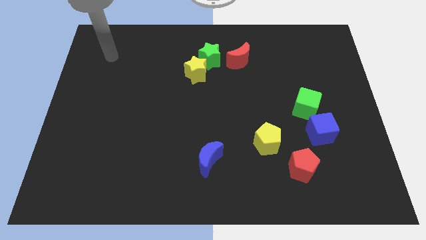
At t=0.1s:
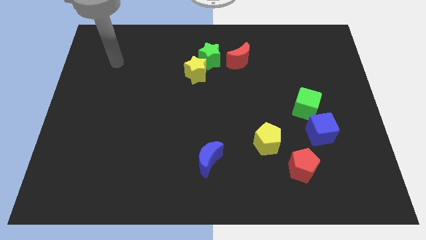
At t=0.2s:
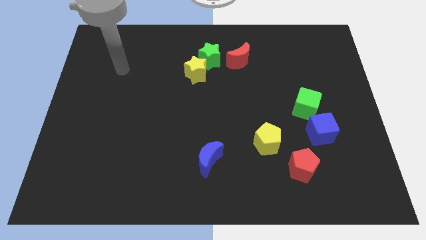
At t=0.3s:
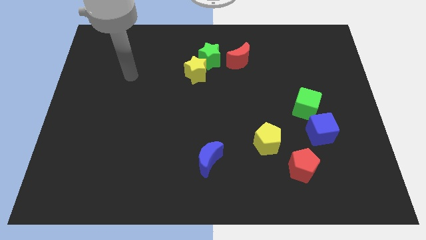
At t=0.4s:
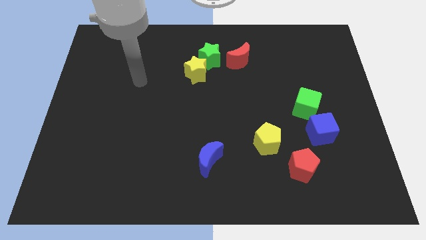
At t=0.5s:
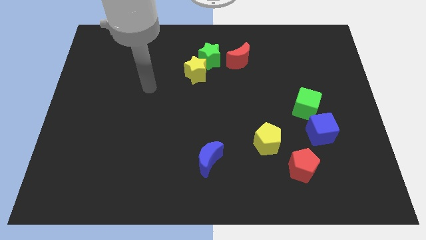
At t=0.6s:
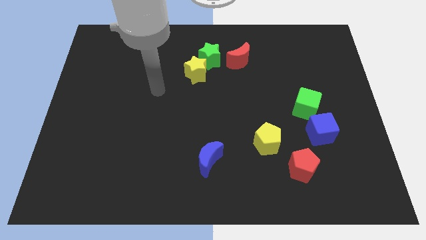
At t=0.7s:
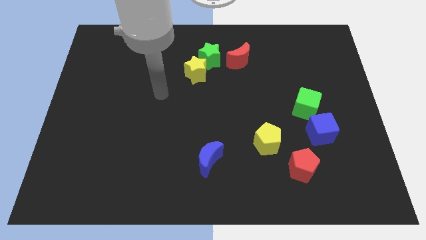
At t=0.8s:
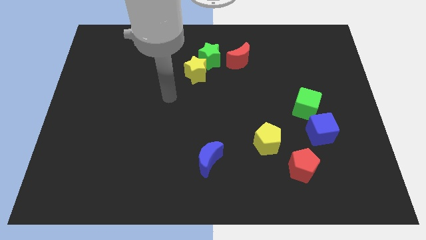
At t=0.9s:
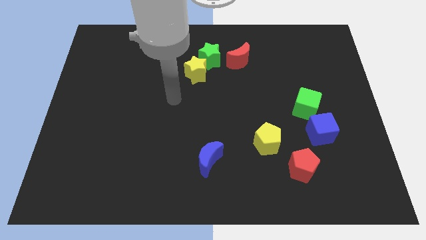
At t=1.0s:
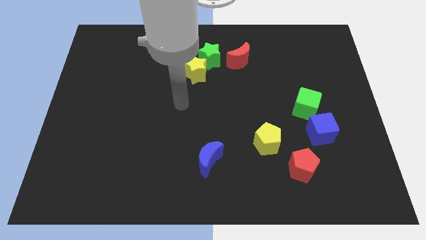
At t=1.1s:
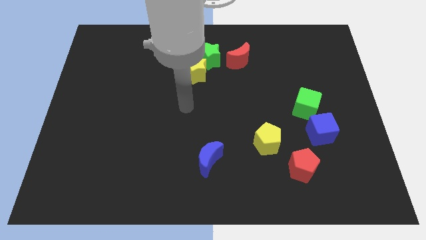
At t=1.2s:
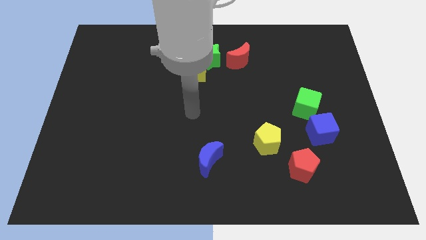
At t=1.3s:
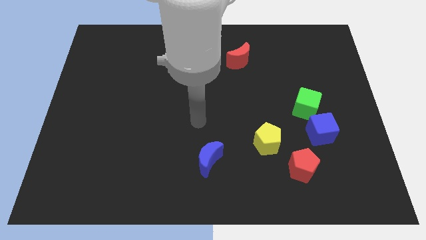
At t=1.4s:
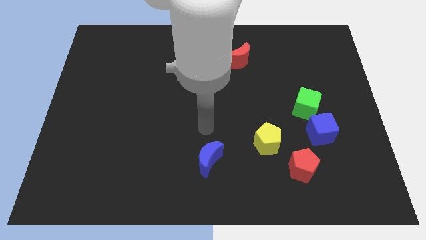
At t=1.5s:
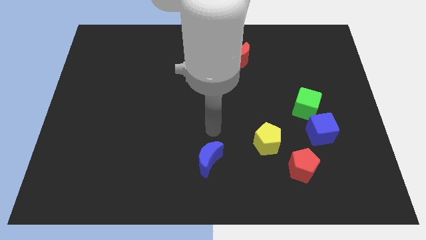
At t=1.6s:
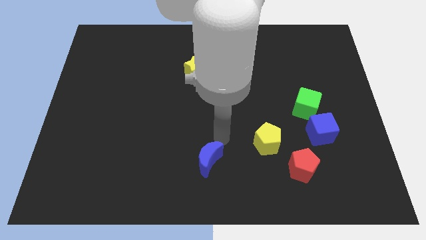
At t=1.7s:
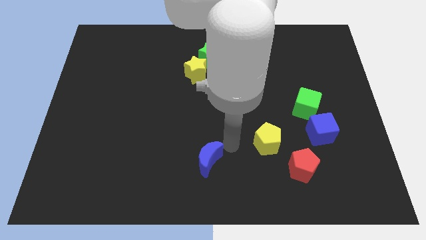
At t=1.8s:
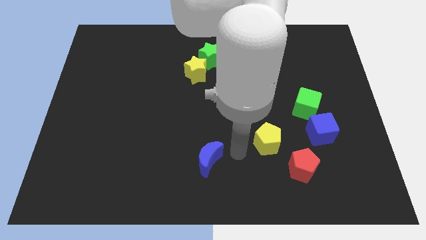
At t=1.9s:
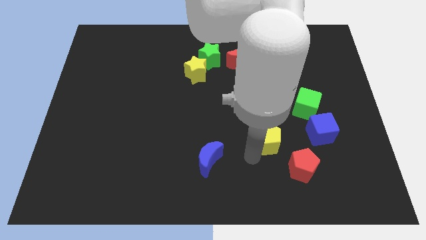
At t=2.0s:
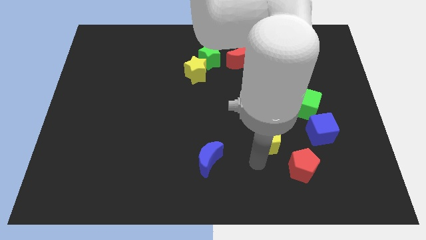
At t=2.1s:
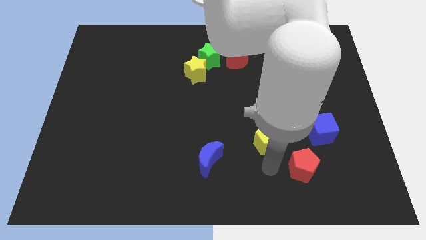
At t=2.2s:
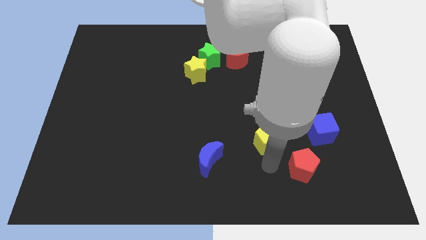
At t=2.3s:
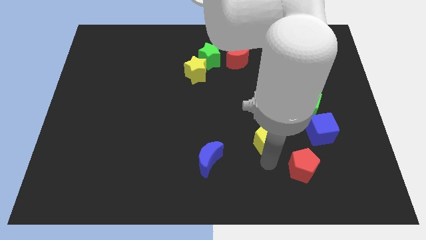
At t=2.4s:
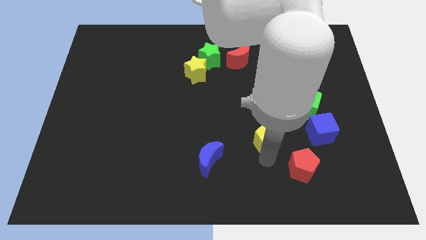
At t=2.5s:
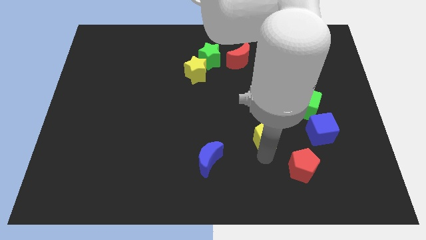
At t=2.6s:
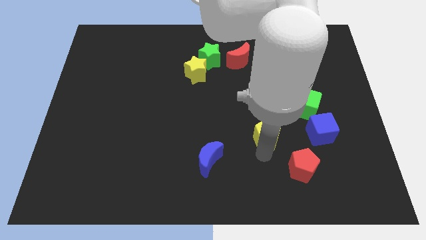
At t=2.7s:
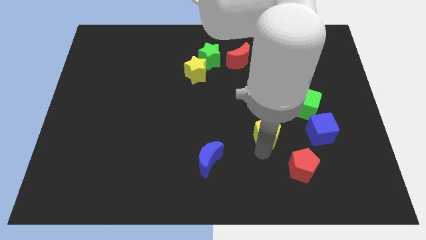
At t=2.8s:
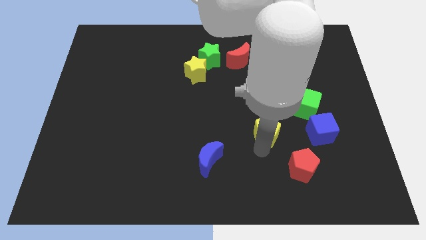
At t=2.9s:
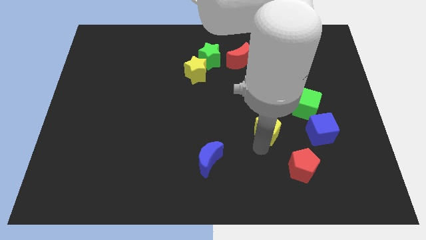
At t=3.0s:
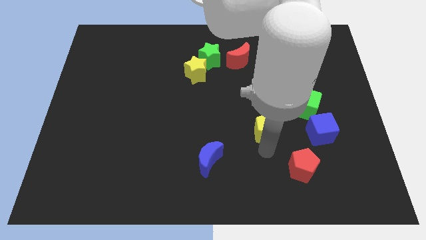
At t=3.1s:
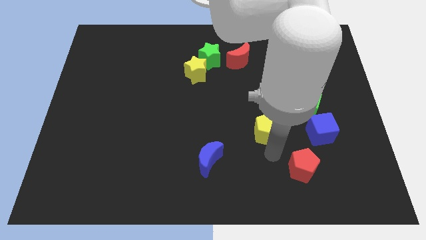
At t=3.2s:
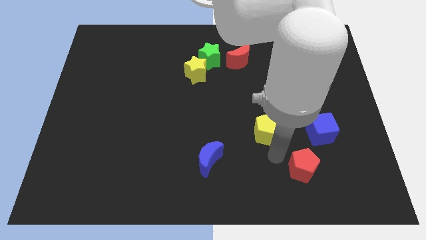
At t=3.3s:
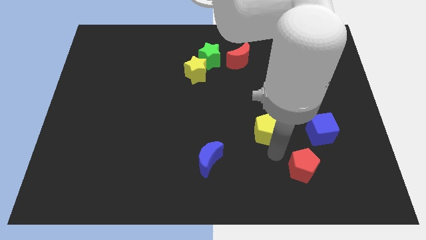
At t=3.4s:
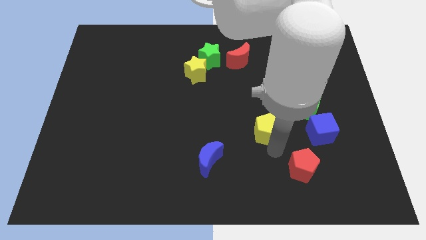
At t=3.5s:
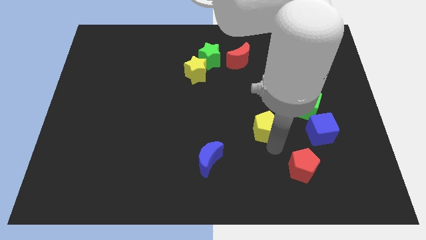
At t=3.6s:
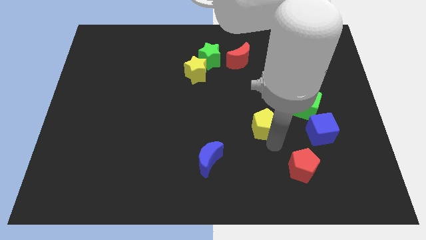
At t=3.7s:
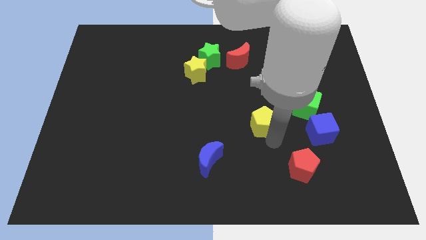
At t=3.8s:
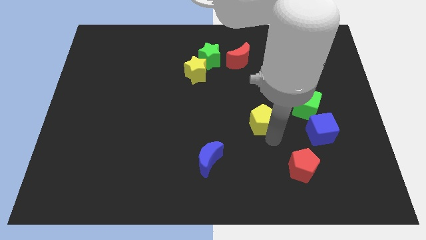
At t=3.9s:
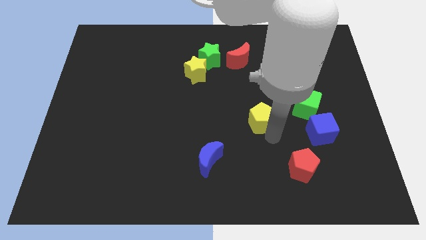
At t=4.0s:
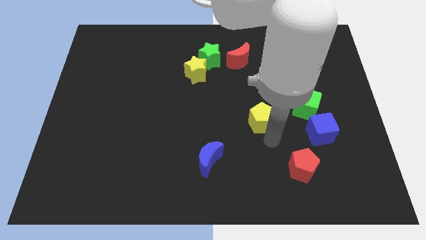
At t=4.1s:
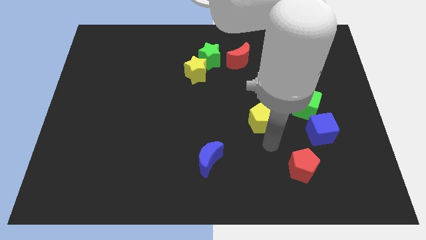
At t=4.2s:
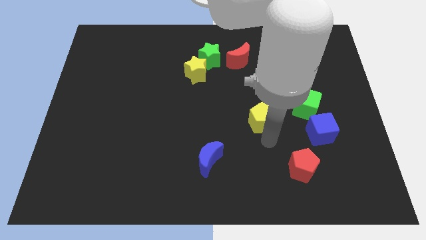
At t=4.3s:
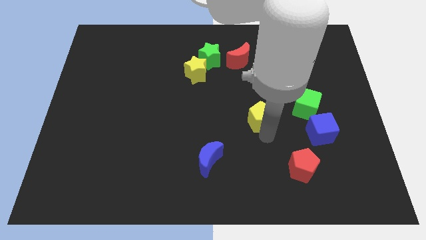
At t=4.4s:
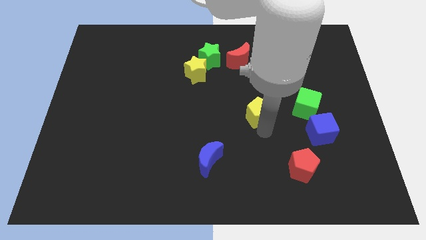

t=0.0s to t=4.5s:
slide the yellow pentagon upwards a bit

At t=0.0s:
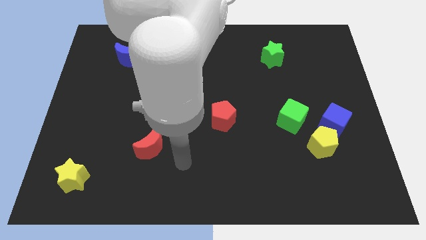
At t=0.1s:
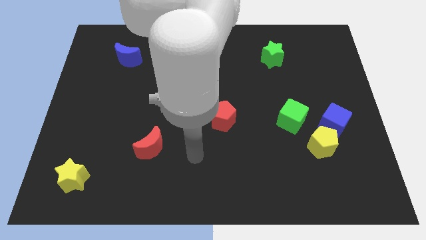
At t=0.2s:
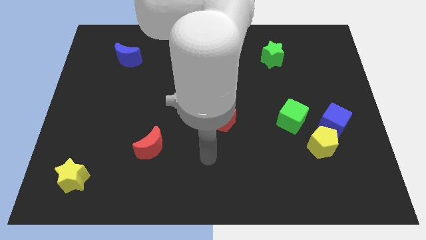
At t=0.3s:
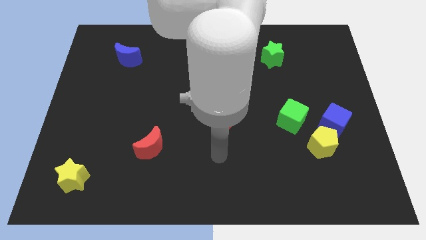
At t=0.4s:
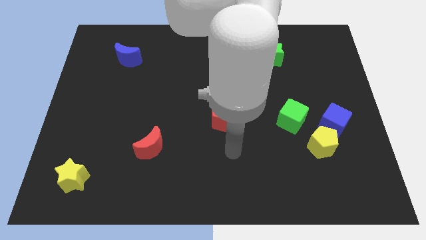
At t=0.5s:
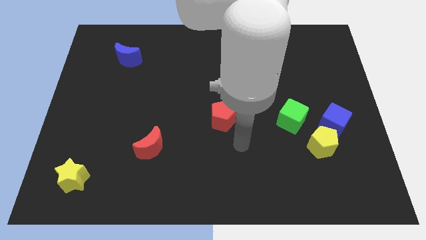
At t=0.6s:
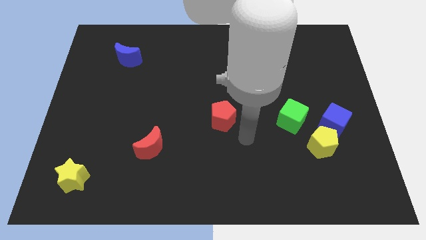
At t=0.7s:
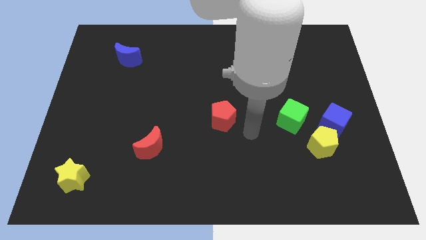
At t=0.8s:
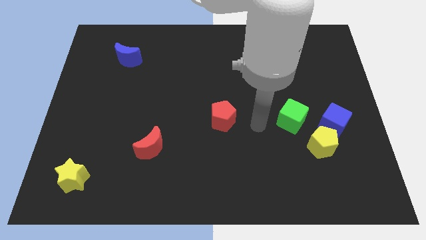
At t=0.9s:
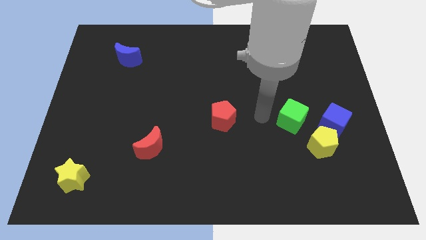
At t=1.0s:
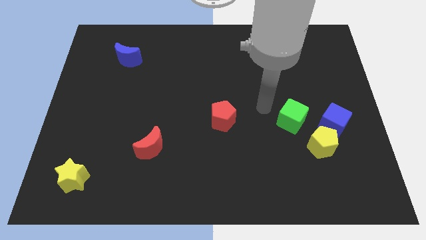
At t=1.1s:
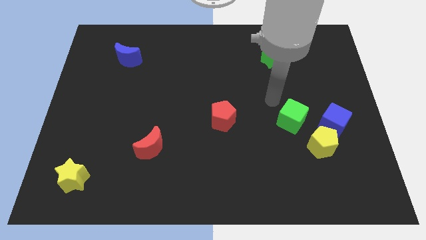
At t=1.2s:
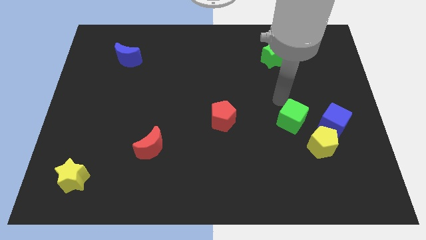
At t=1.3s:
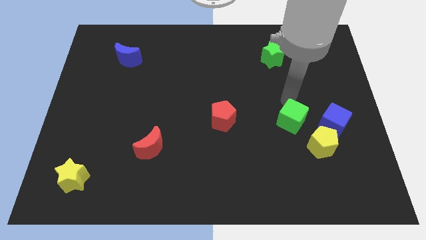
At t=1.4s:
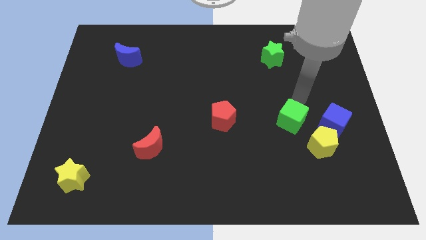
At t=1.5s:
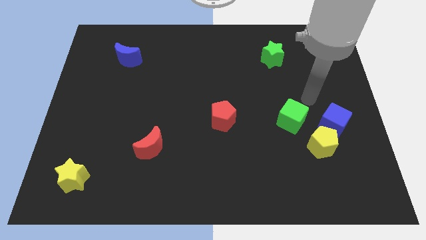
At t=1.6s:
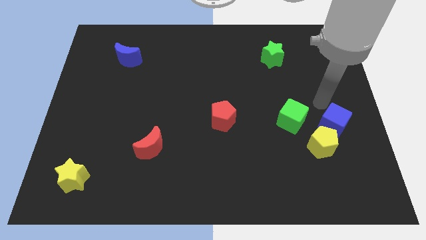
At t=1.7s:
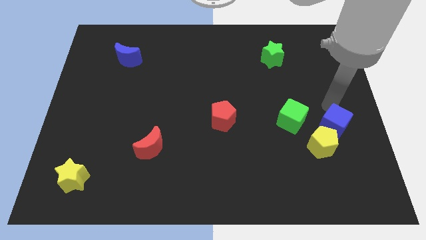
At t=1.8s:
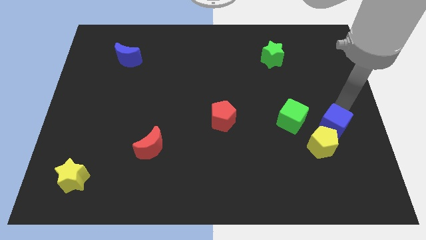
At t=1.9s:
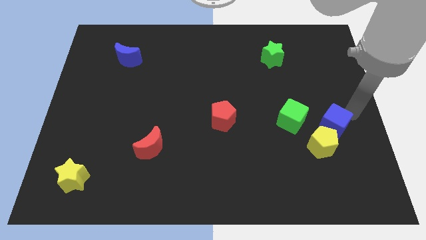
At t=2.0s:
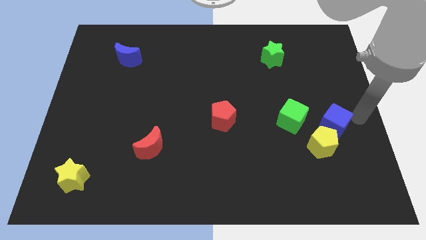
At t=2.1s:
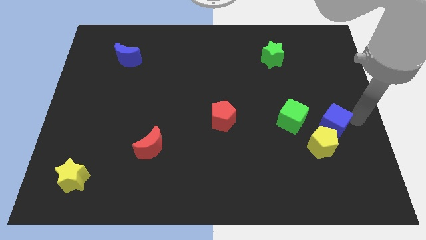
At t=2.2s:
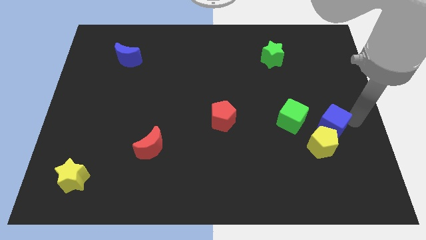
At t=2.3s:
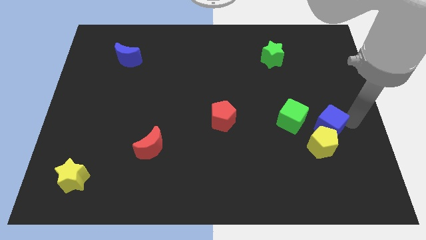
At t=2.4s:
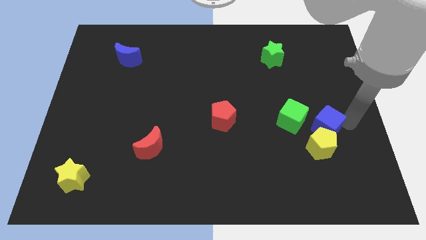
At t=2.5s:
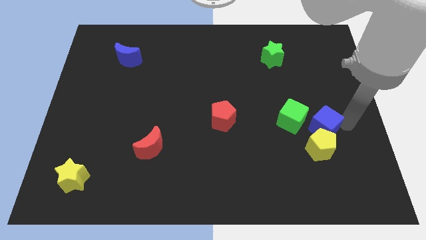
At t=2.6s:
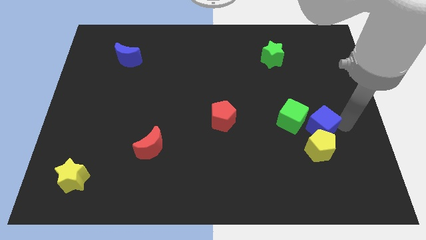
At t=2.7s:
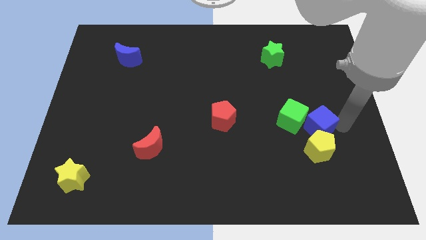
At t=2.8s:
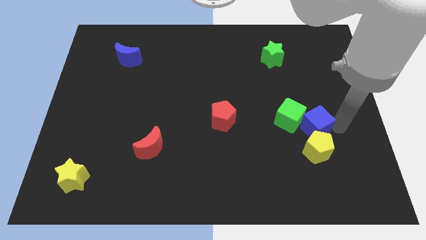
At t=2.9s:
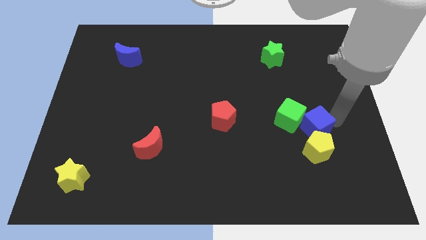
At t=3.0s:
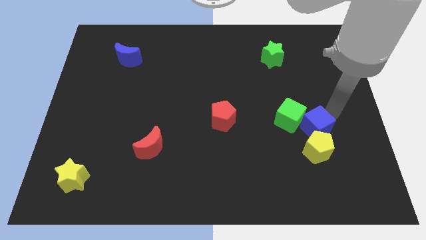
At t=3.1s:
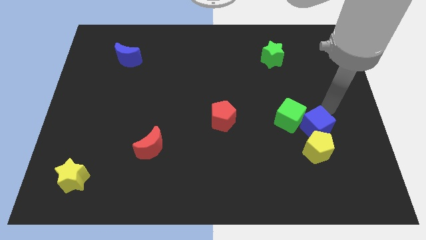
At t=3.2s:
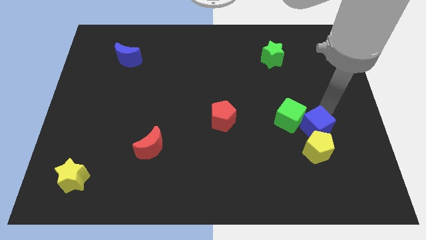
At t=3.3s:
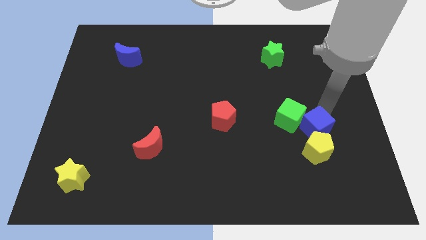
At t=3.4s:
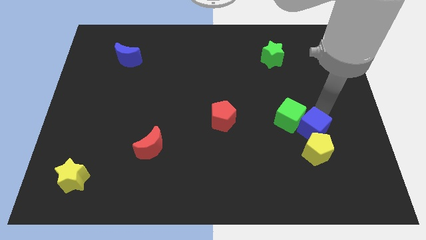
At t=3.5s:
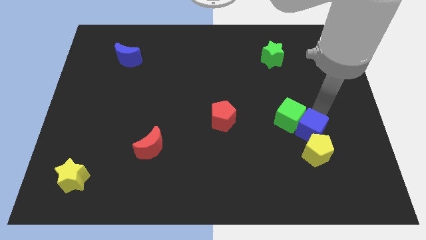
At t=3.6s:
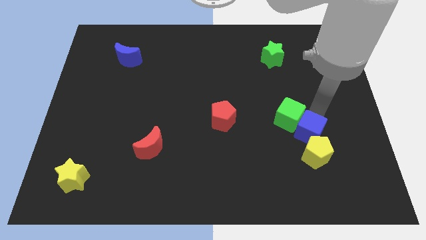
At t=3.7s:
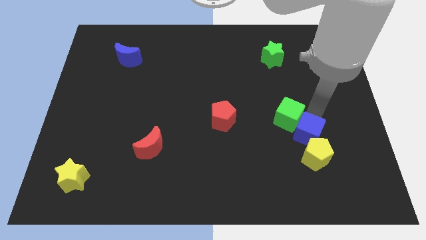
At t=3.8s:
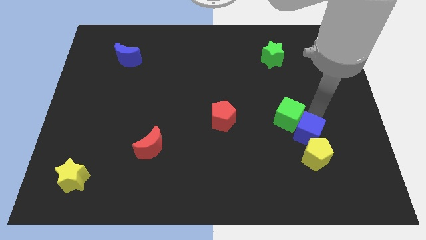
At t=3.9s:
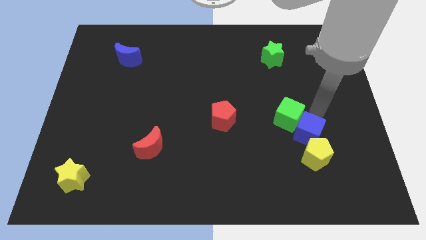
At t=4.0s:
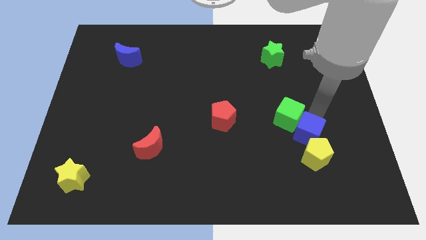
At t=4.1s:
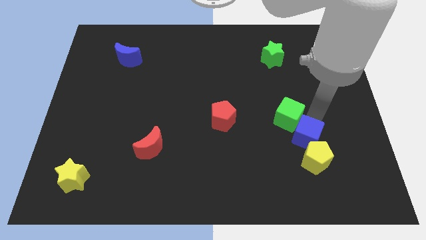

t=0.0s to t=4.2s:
slide the blue cube somewhat down and to the left
